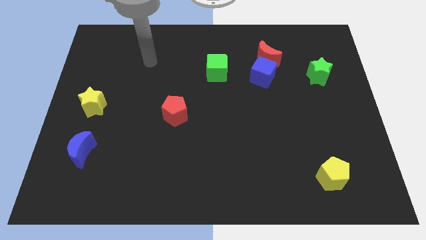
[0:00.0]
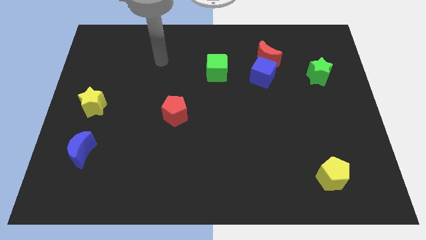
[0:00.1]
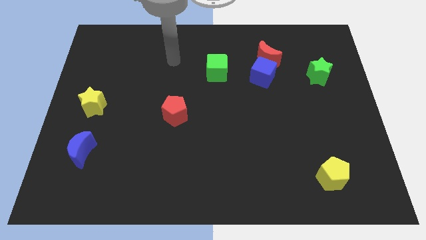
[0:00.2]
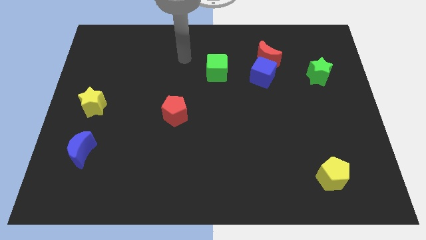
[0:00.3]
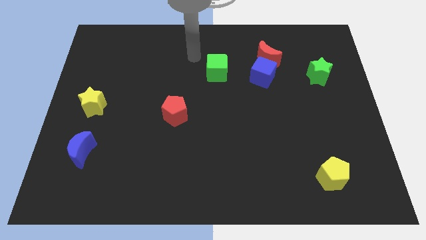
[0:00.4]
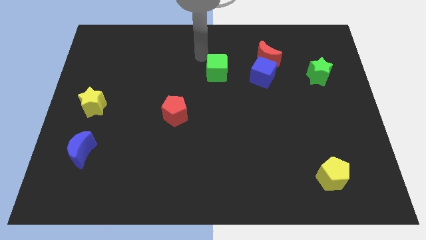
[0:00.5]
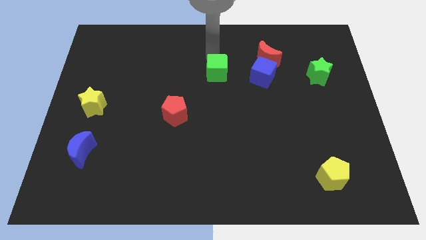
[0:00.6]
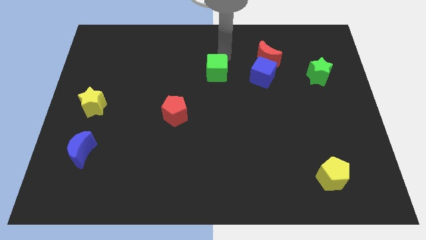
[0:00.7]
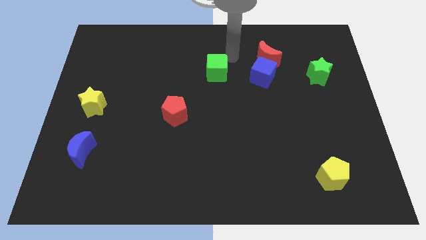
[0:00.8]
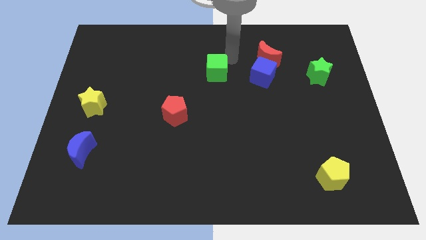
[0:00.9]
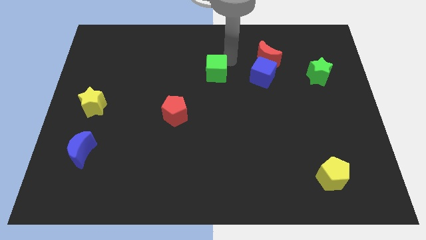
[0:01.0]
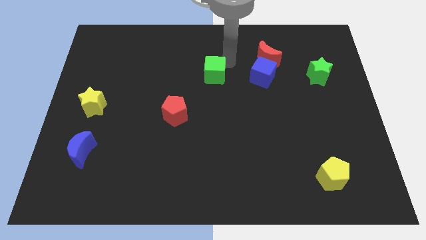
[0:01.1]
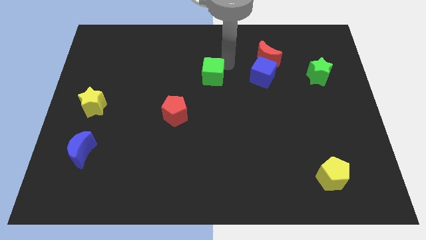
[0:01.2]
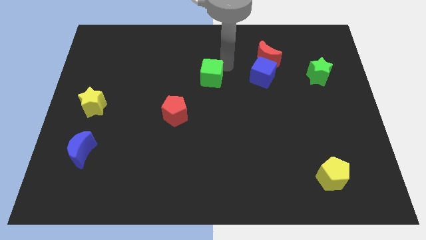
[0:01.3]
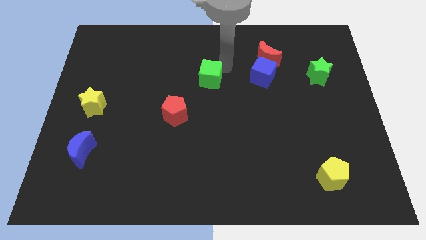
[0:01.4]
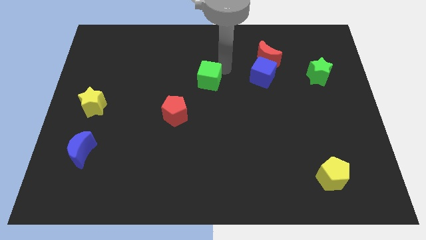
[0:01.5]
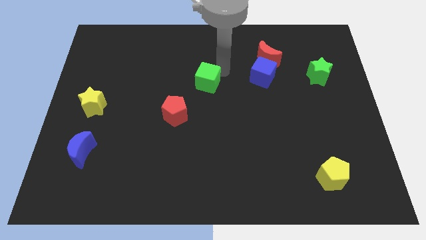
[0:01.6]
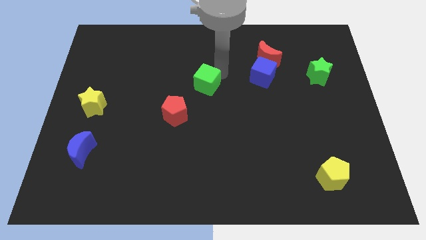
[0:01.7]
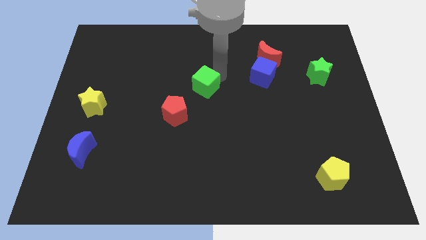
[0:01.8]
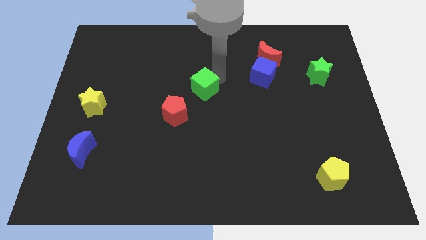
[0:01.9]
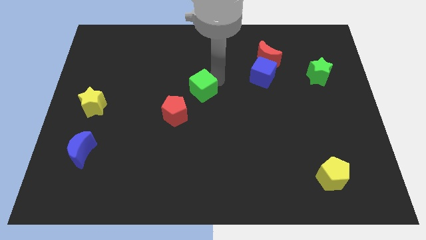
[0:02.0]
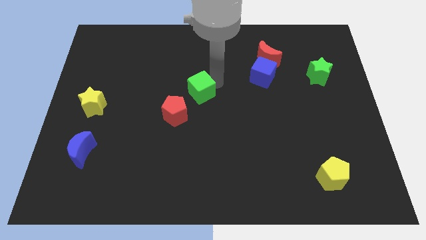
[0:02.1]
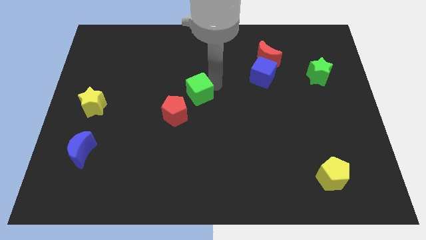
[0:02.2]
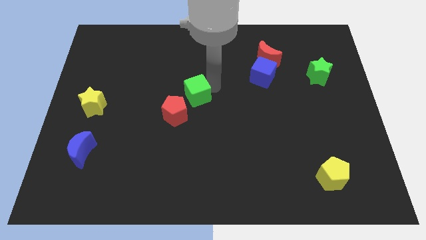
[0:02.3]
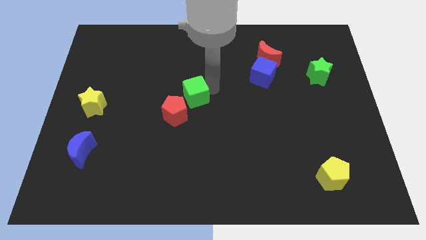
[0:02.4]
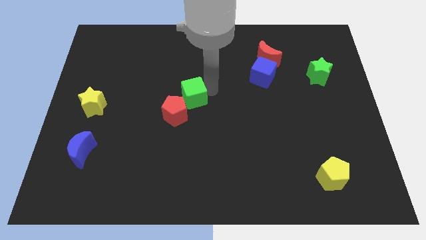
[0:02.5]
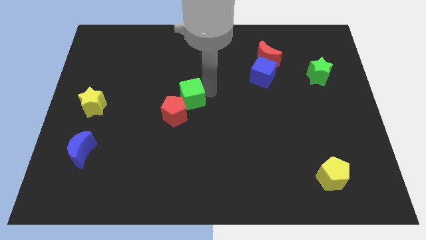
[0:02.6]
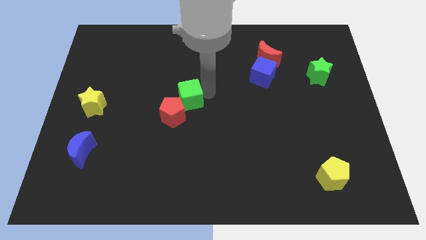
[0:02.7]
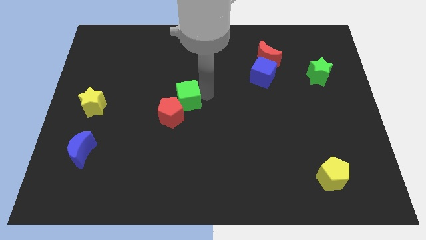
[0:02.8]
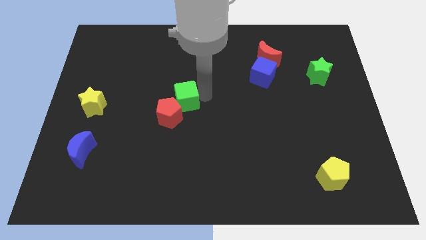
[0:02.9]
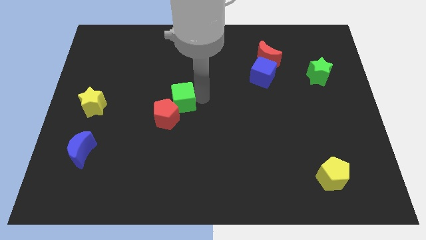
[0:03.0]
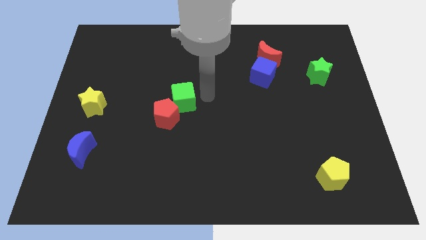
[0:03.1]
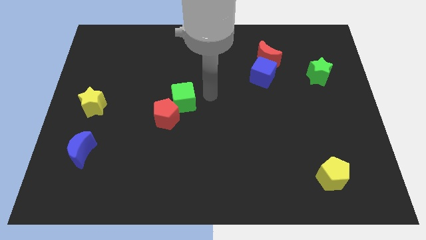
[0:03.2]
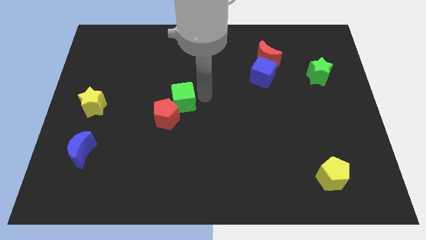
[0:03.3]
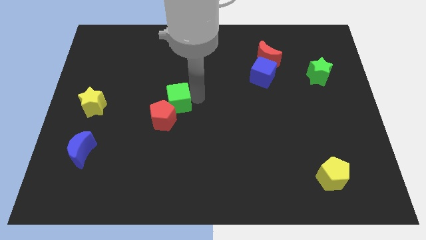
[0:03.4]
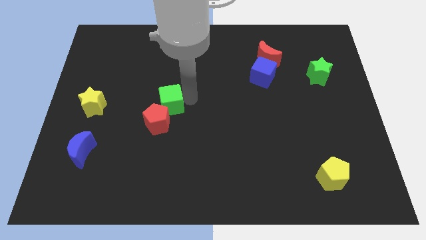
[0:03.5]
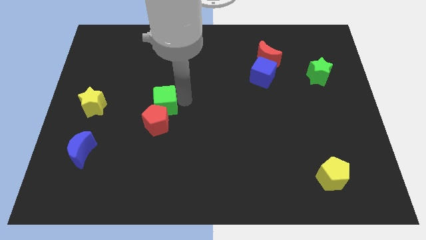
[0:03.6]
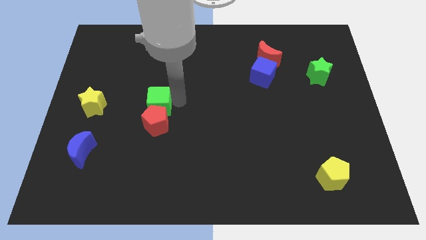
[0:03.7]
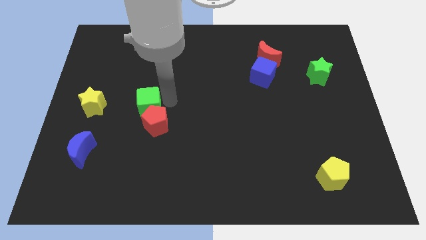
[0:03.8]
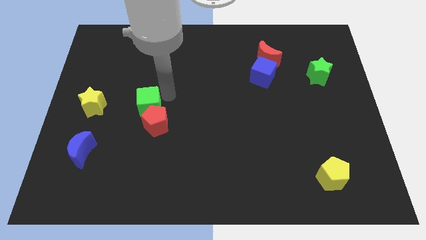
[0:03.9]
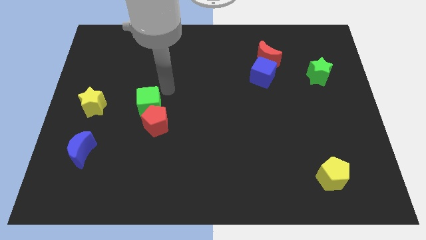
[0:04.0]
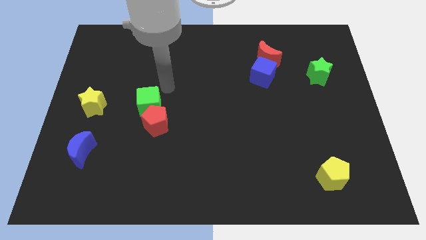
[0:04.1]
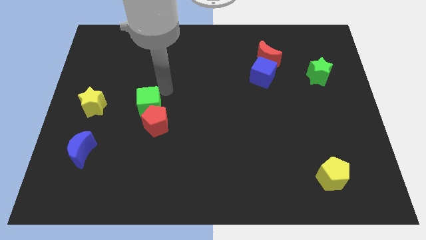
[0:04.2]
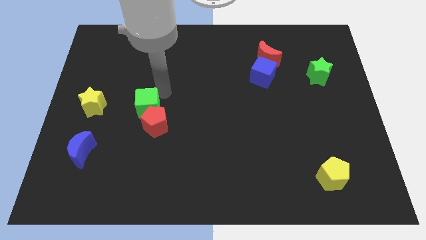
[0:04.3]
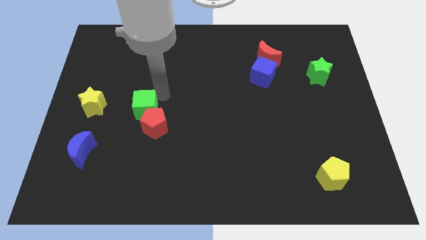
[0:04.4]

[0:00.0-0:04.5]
push the green cube diagonally downwards and left

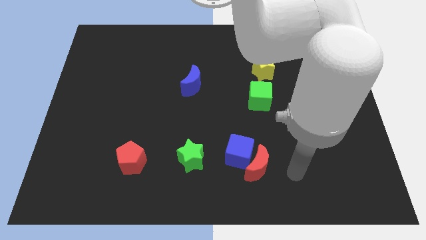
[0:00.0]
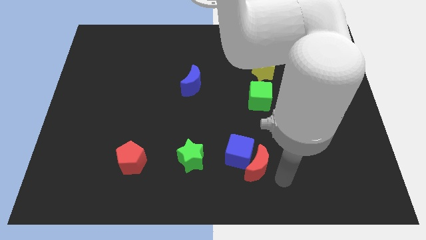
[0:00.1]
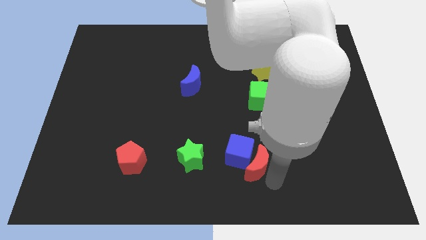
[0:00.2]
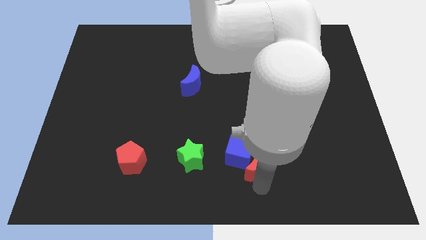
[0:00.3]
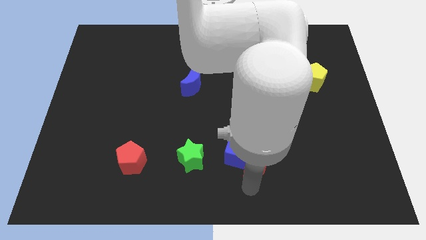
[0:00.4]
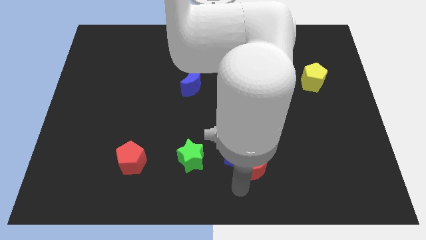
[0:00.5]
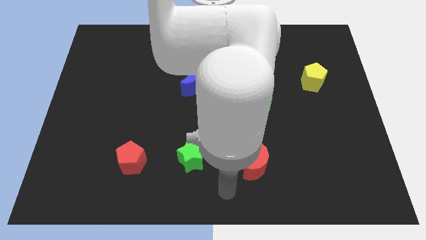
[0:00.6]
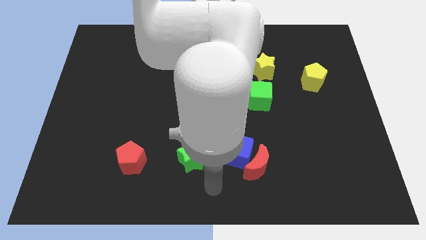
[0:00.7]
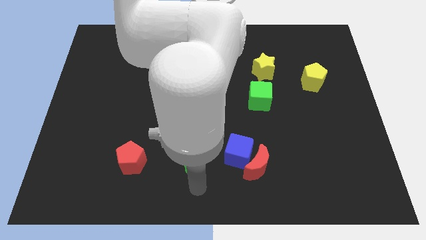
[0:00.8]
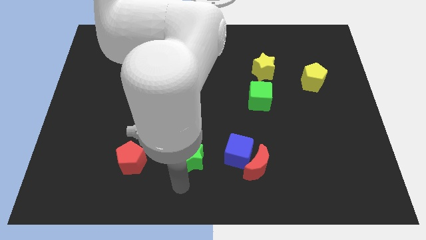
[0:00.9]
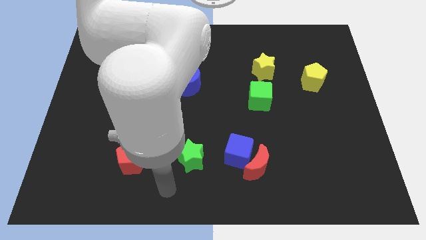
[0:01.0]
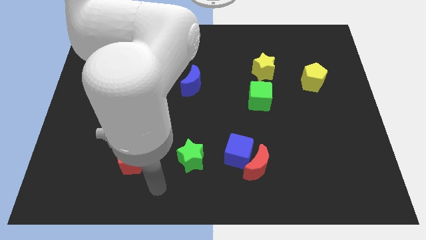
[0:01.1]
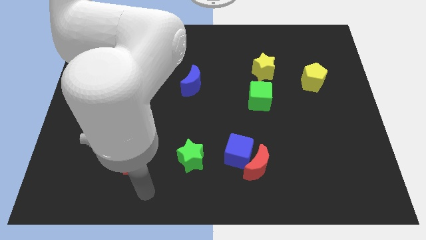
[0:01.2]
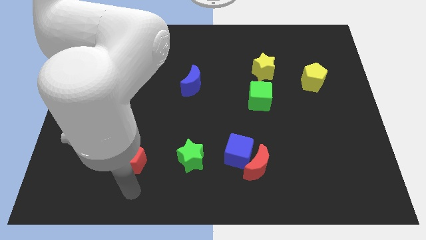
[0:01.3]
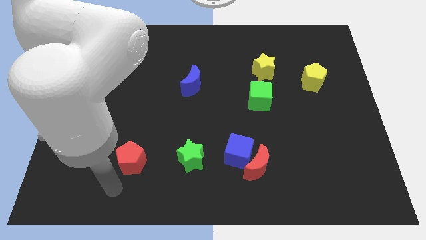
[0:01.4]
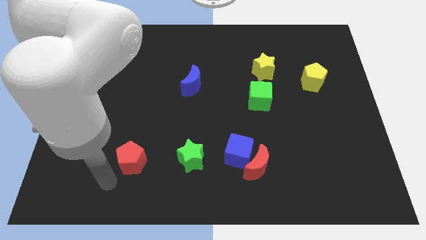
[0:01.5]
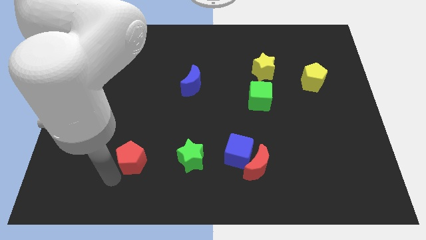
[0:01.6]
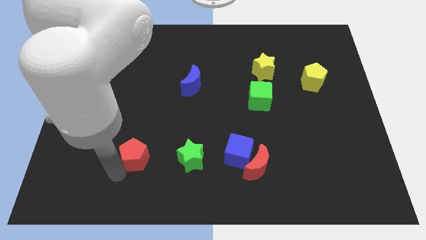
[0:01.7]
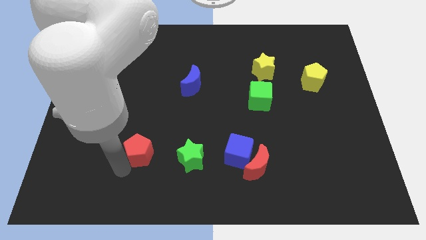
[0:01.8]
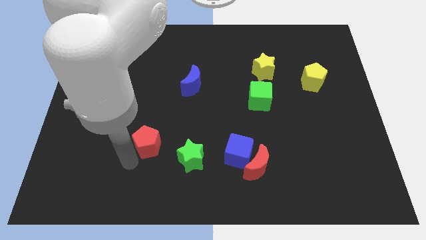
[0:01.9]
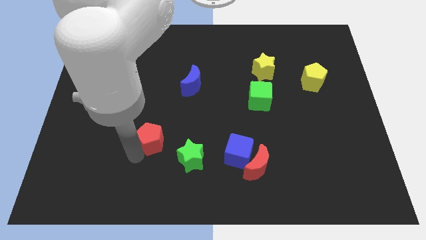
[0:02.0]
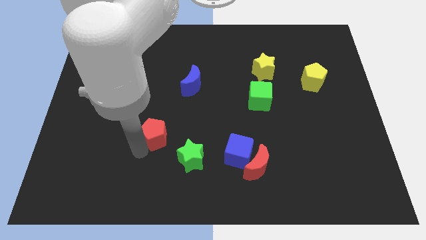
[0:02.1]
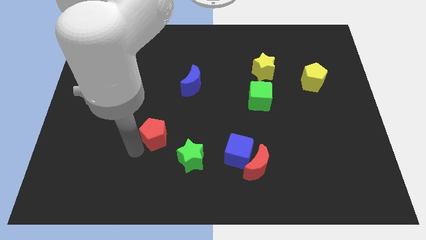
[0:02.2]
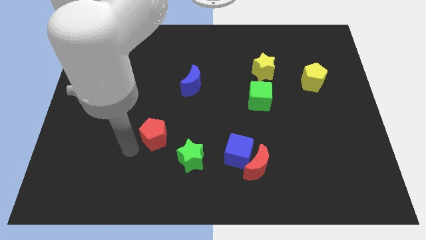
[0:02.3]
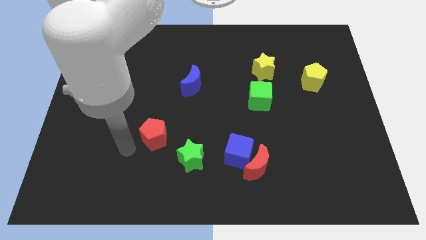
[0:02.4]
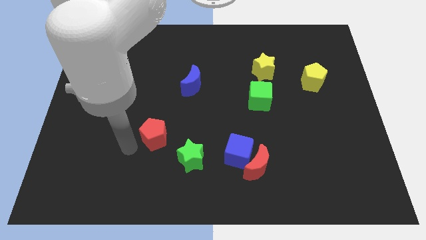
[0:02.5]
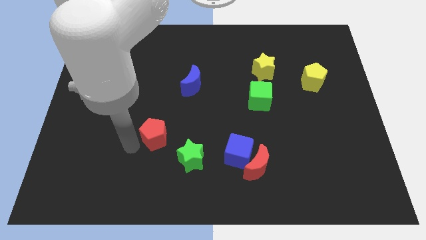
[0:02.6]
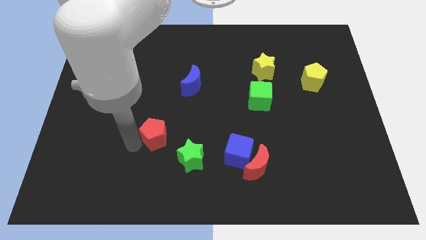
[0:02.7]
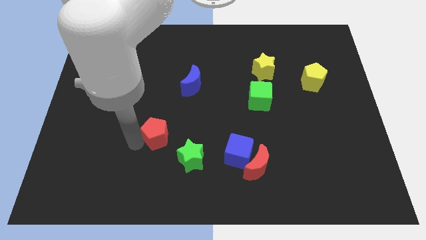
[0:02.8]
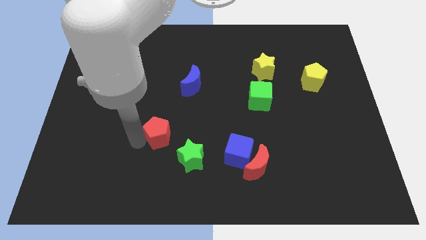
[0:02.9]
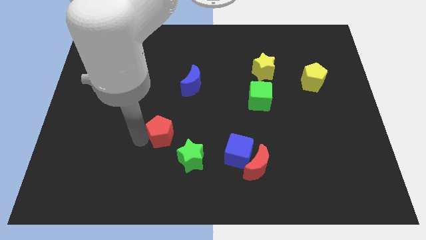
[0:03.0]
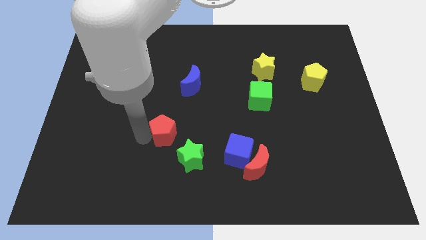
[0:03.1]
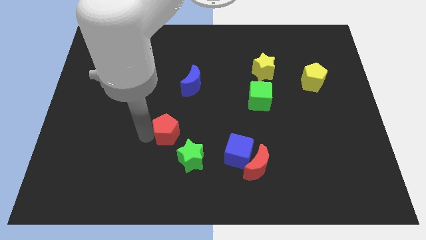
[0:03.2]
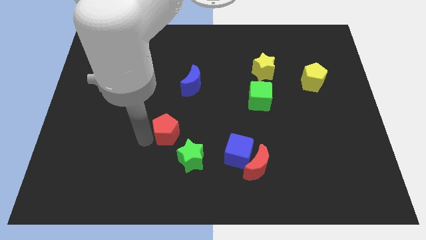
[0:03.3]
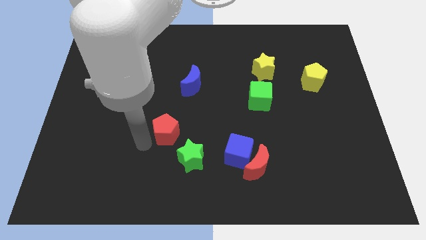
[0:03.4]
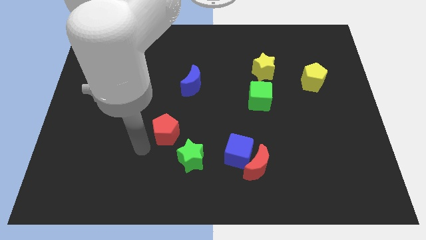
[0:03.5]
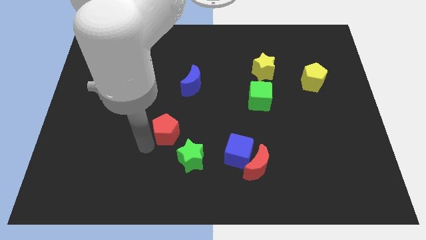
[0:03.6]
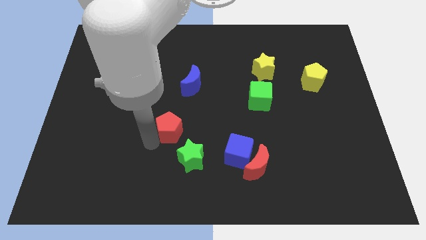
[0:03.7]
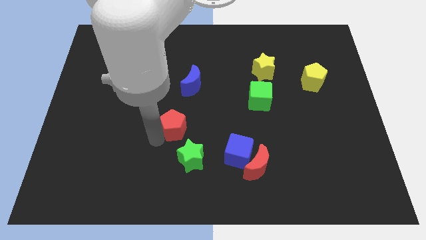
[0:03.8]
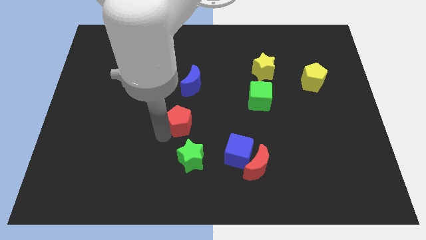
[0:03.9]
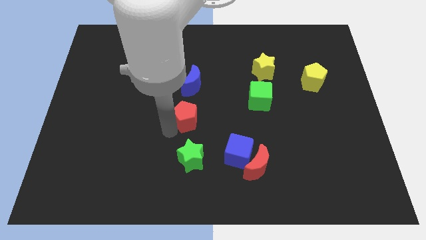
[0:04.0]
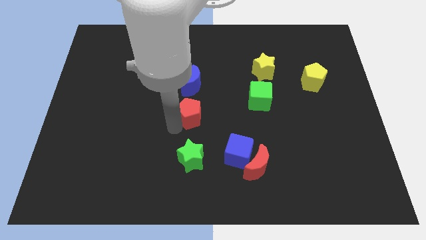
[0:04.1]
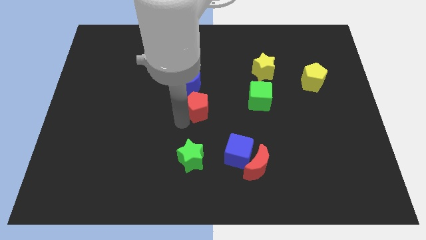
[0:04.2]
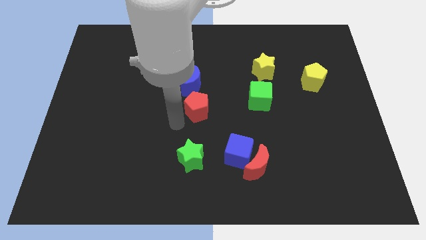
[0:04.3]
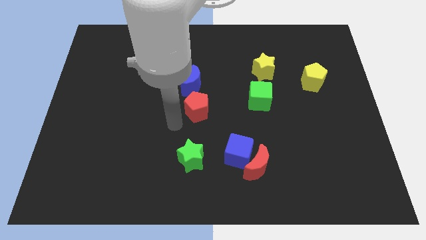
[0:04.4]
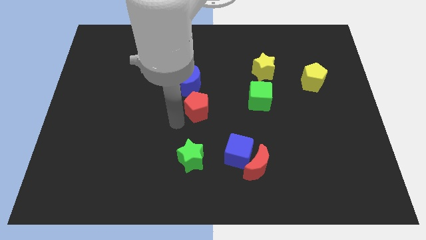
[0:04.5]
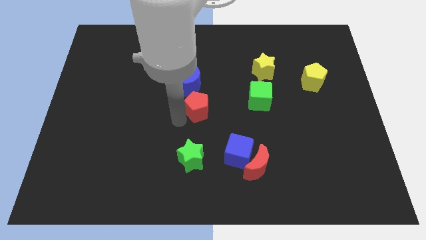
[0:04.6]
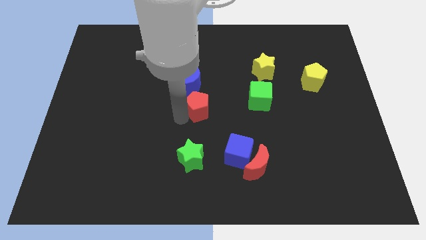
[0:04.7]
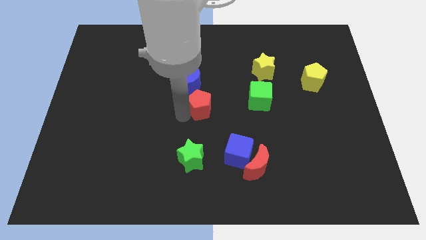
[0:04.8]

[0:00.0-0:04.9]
push the red pentagon up and right diagonally
